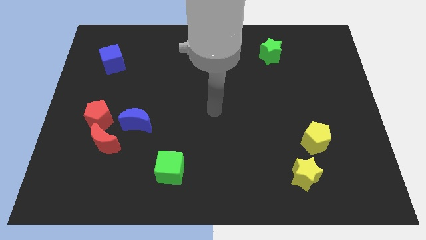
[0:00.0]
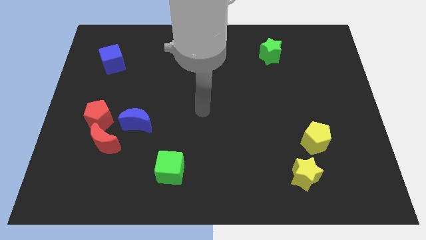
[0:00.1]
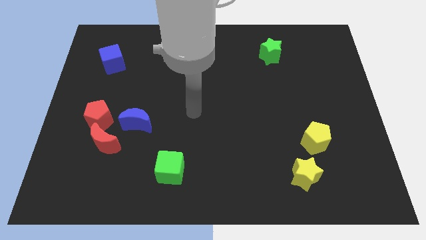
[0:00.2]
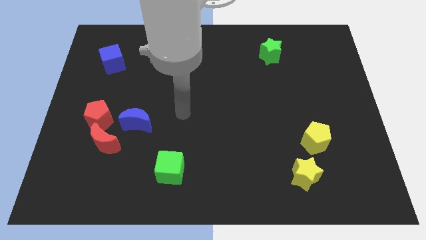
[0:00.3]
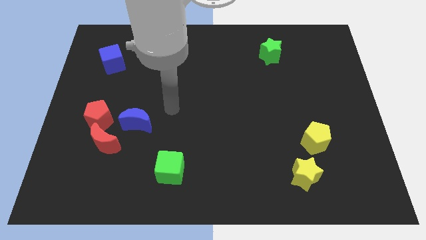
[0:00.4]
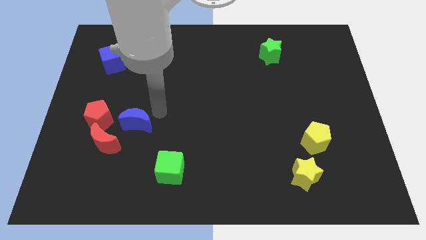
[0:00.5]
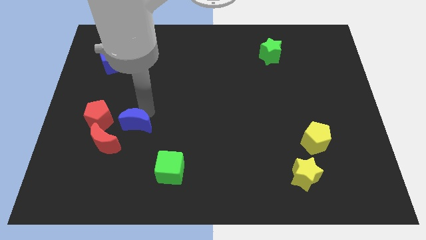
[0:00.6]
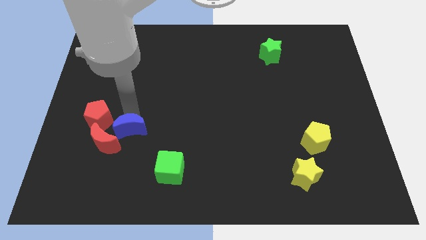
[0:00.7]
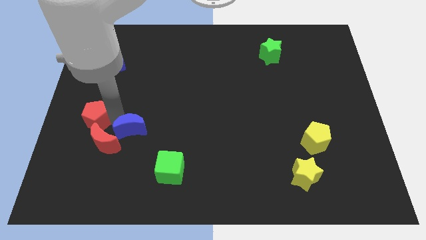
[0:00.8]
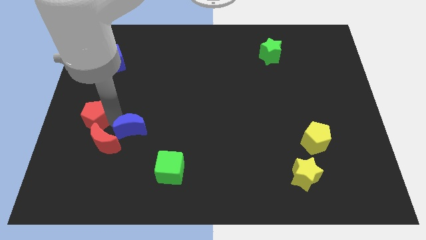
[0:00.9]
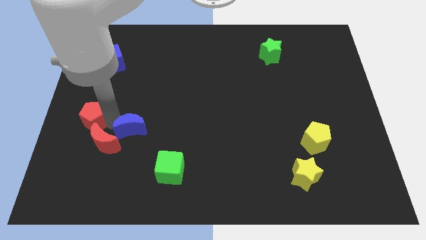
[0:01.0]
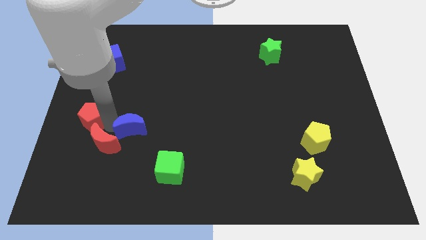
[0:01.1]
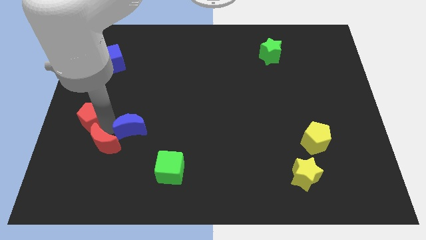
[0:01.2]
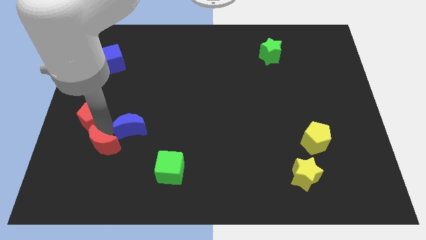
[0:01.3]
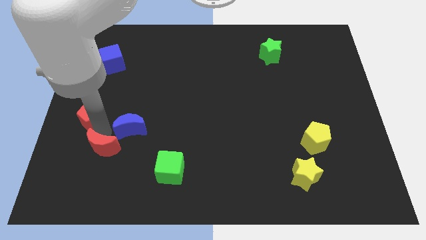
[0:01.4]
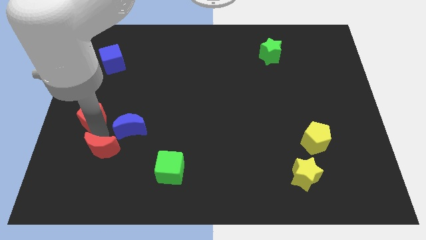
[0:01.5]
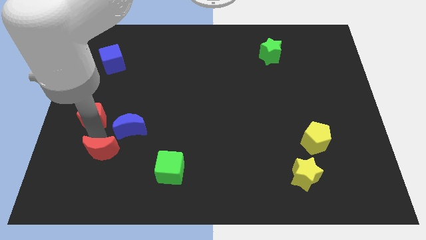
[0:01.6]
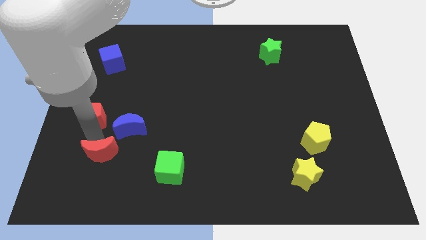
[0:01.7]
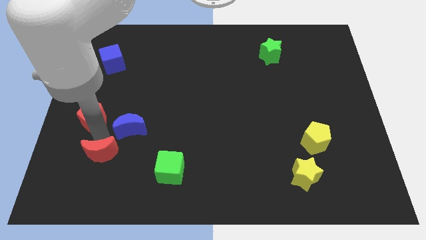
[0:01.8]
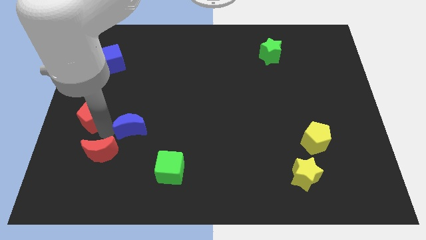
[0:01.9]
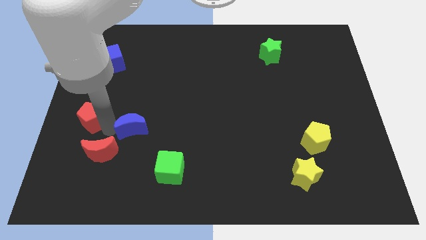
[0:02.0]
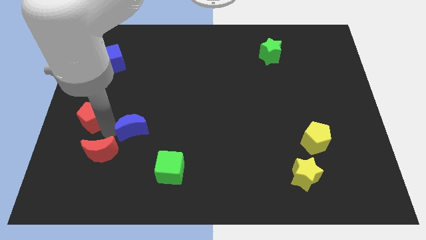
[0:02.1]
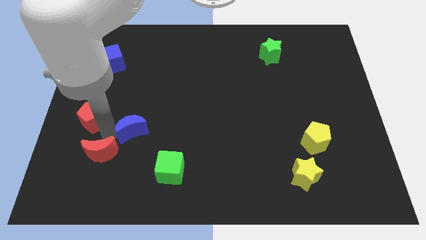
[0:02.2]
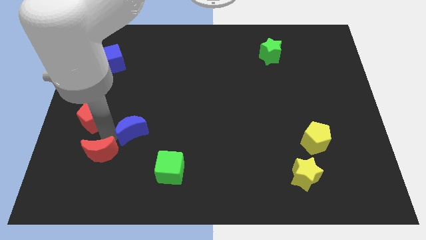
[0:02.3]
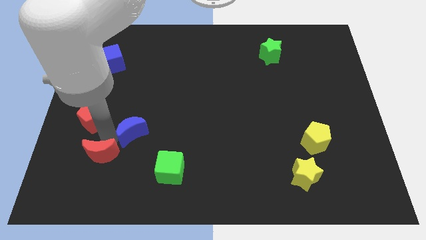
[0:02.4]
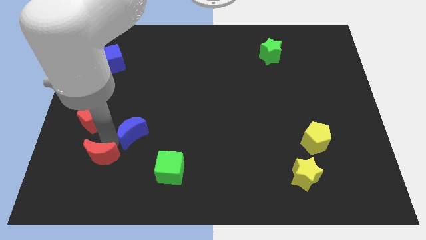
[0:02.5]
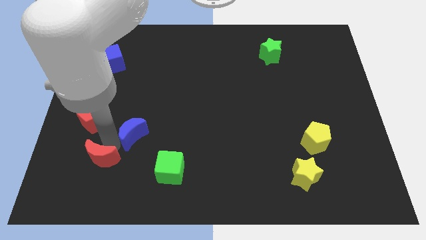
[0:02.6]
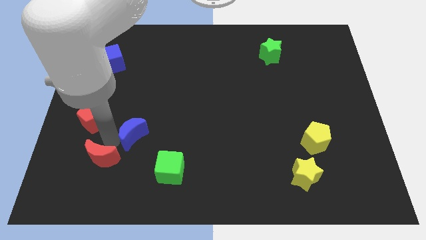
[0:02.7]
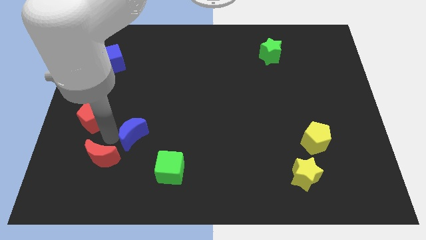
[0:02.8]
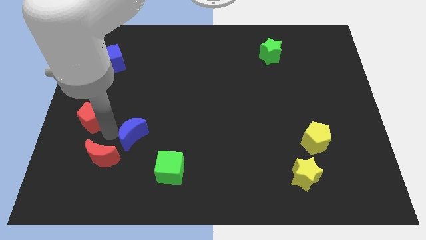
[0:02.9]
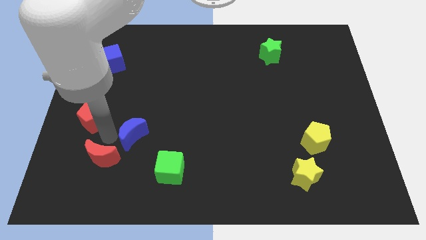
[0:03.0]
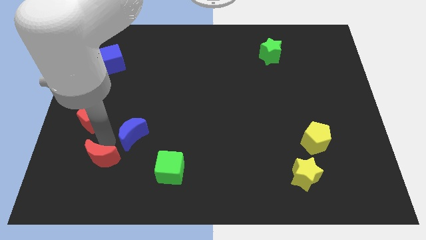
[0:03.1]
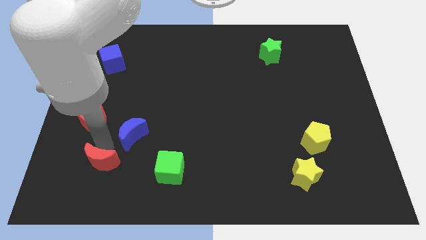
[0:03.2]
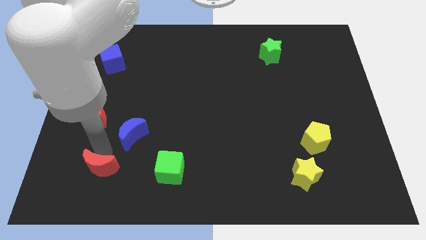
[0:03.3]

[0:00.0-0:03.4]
pull the red moon apart from the red pentagon and blue moon

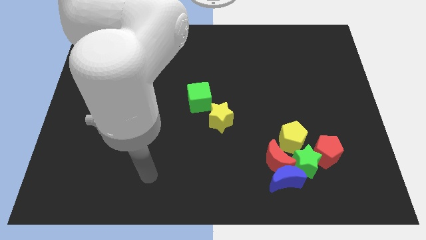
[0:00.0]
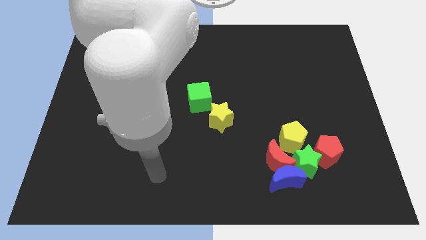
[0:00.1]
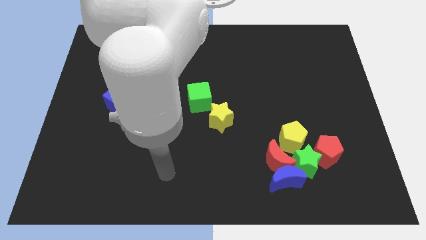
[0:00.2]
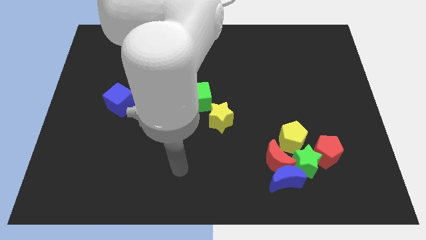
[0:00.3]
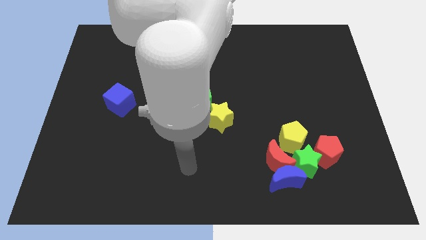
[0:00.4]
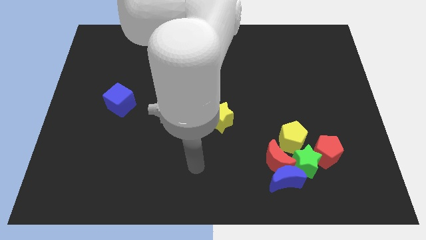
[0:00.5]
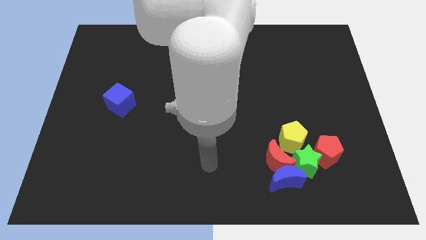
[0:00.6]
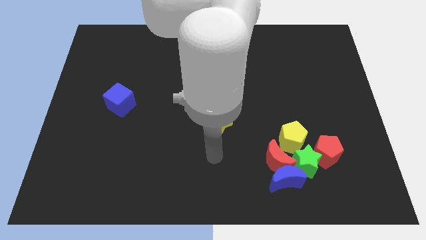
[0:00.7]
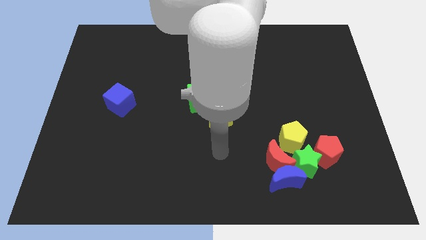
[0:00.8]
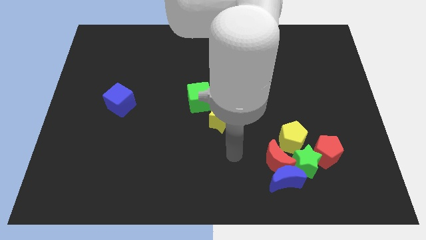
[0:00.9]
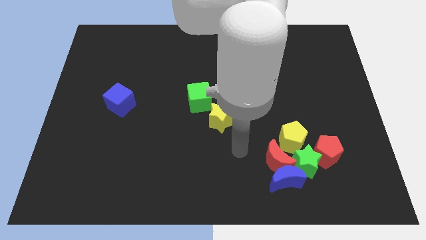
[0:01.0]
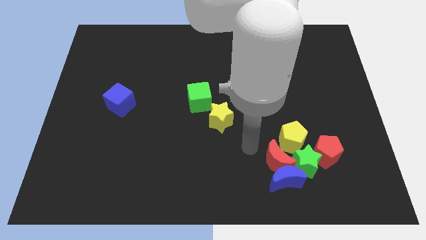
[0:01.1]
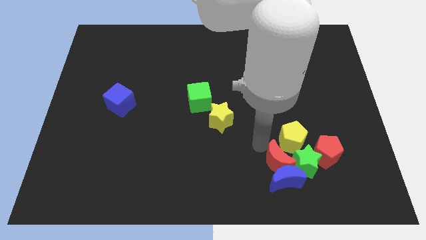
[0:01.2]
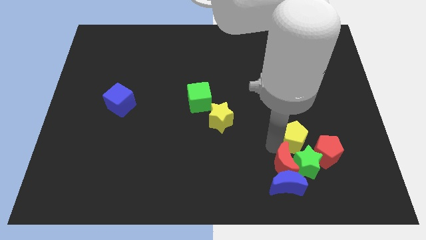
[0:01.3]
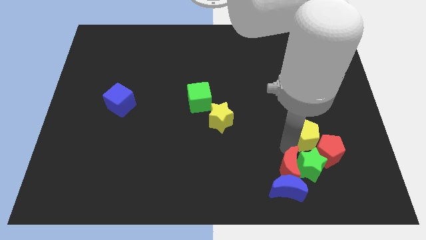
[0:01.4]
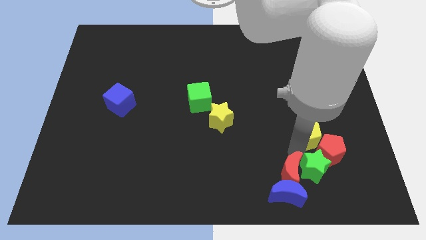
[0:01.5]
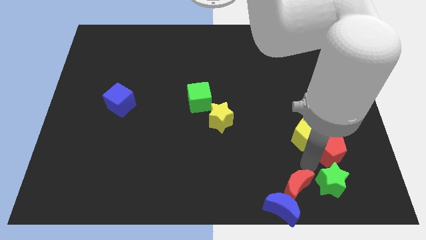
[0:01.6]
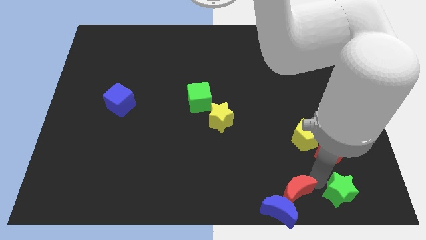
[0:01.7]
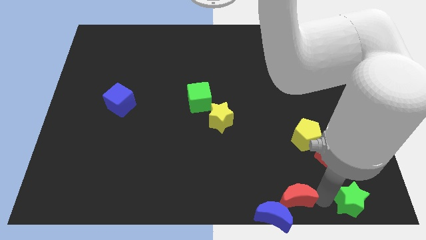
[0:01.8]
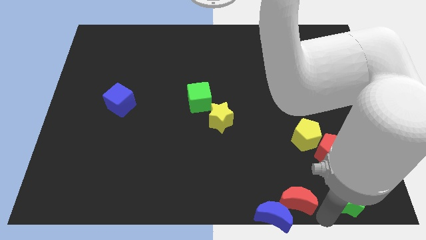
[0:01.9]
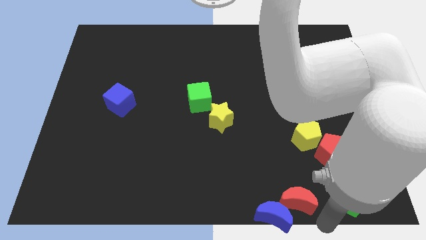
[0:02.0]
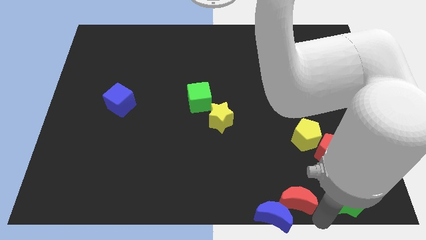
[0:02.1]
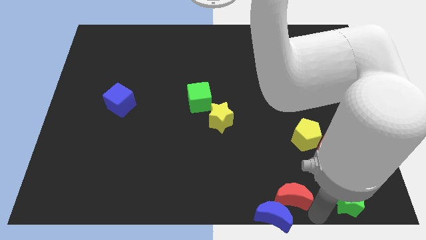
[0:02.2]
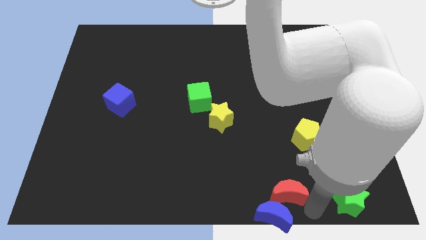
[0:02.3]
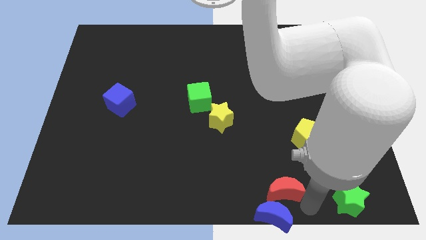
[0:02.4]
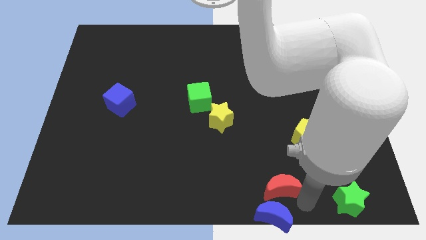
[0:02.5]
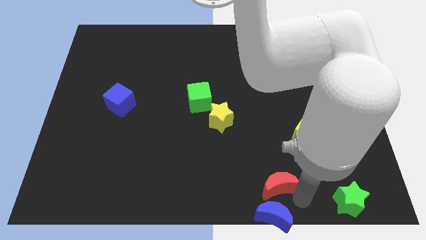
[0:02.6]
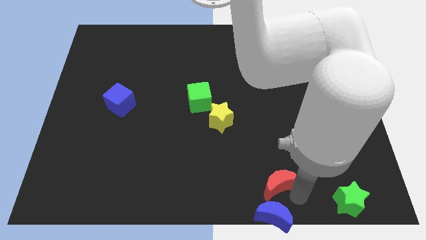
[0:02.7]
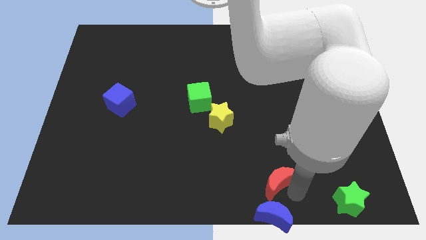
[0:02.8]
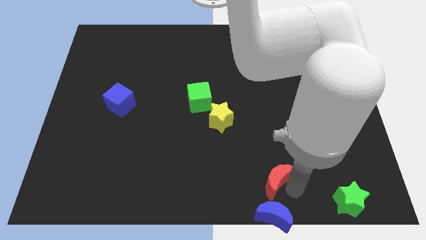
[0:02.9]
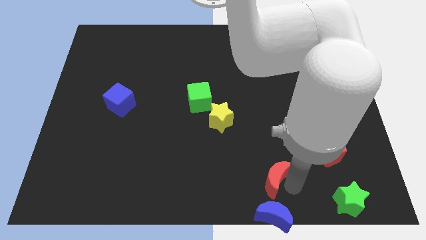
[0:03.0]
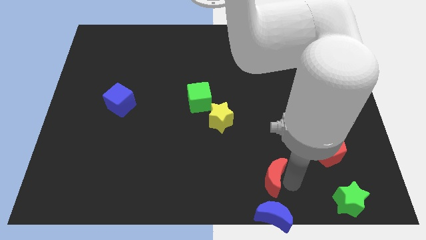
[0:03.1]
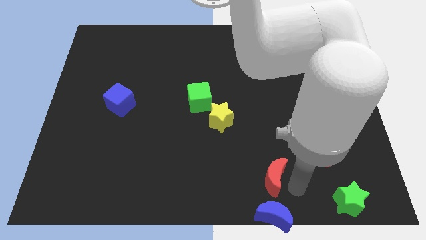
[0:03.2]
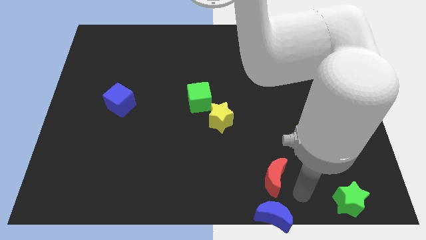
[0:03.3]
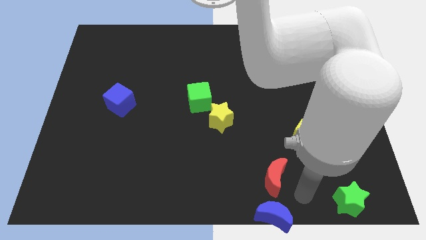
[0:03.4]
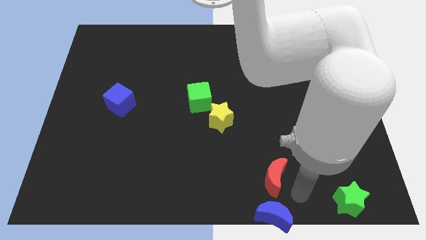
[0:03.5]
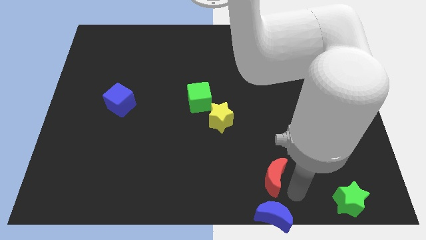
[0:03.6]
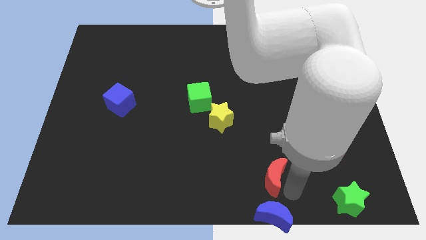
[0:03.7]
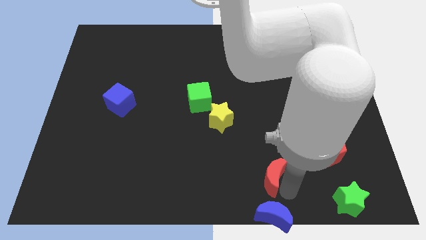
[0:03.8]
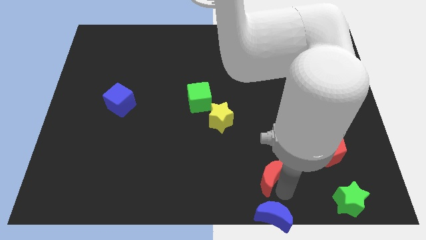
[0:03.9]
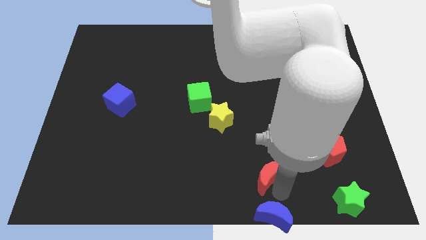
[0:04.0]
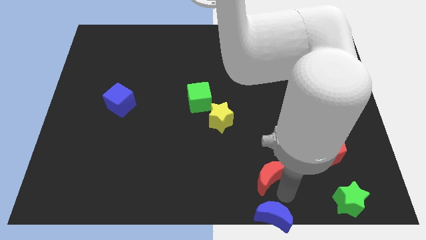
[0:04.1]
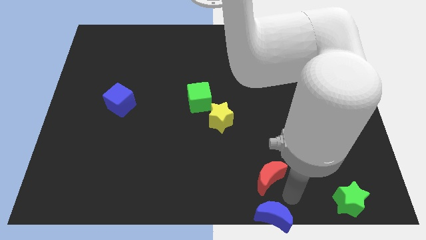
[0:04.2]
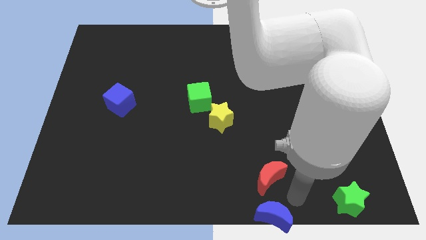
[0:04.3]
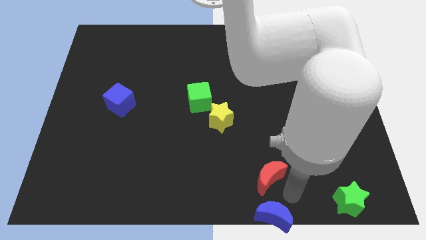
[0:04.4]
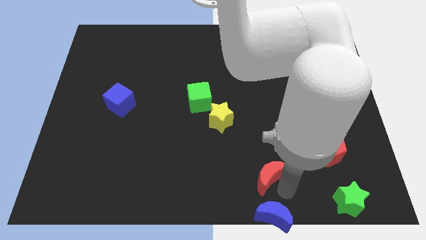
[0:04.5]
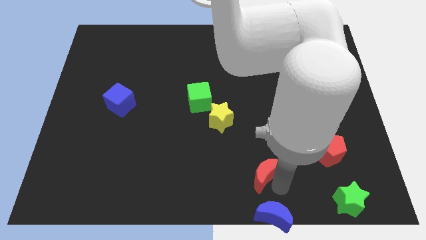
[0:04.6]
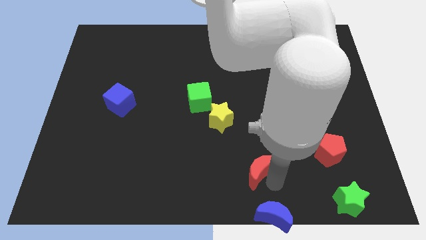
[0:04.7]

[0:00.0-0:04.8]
separate the red moon from the group of blocks

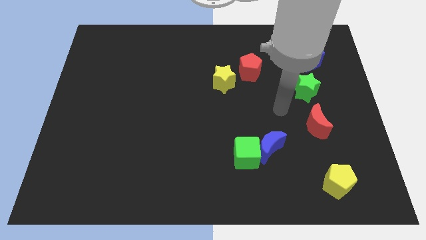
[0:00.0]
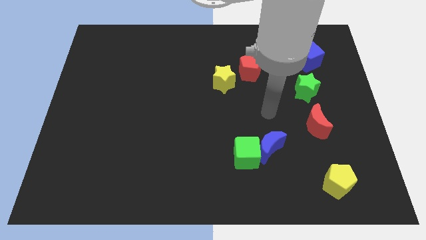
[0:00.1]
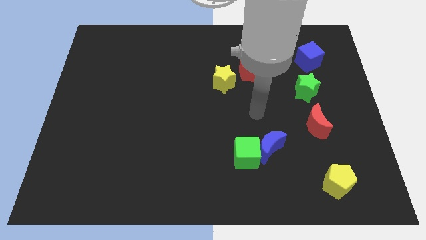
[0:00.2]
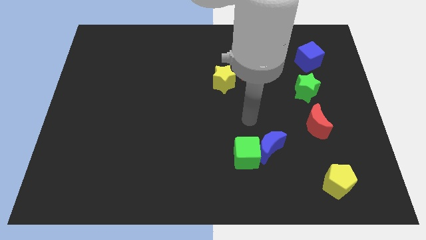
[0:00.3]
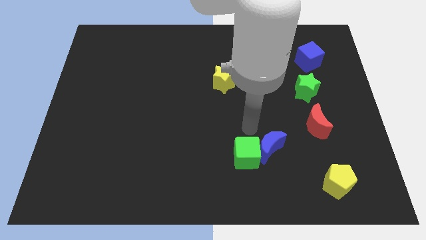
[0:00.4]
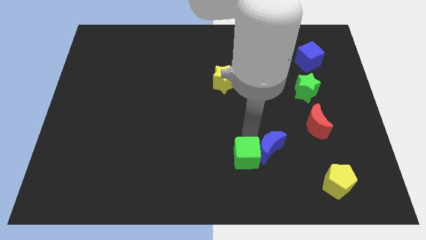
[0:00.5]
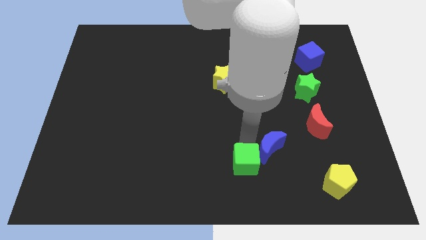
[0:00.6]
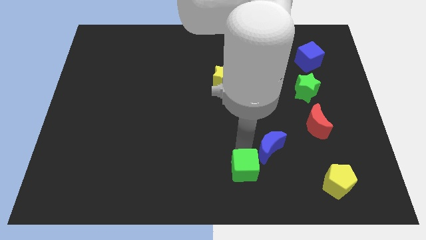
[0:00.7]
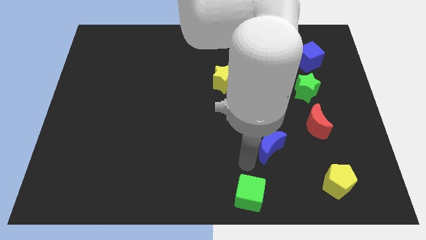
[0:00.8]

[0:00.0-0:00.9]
move the blue moon away from the green cube

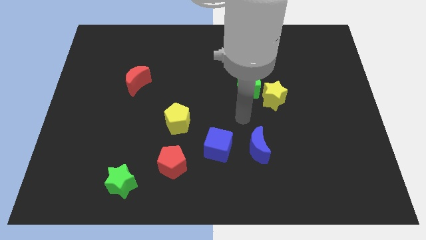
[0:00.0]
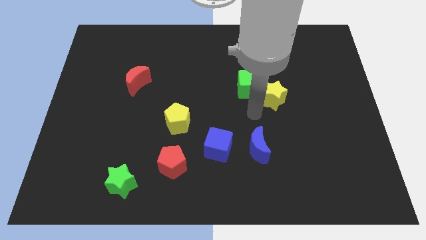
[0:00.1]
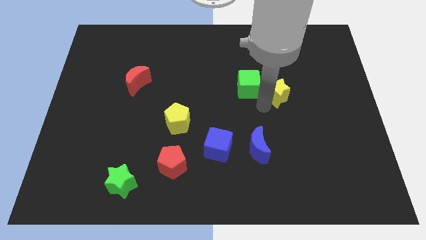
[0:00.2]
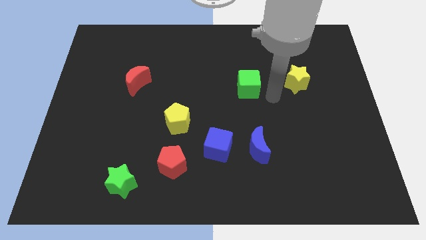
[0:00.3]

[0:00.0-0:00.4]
move the green cube away from the yellow star
